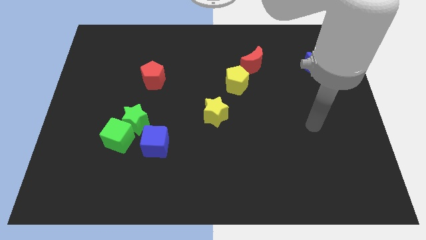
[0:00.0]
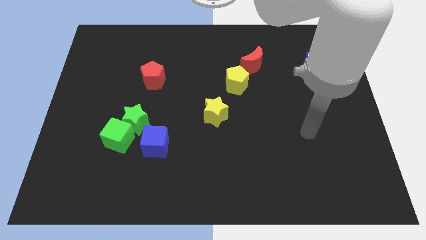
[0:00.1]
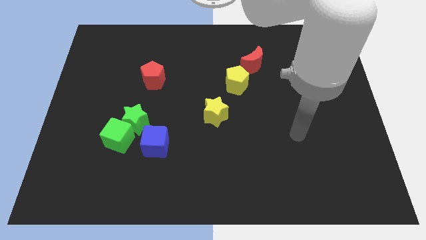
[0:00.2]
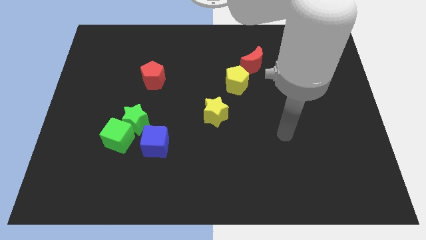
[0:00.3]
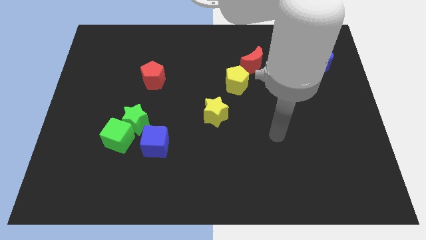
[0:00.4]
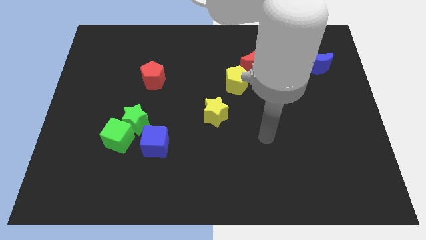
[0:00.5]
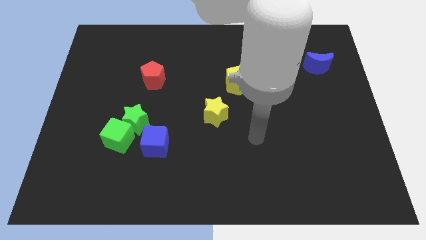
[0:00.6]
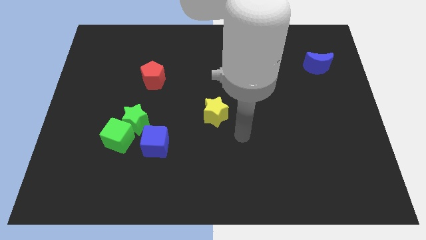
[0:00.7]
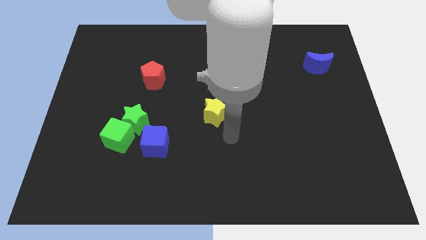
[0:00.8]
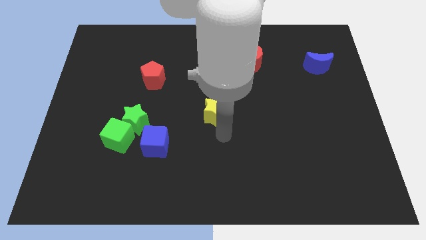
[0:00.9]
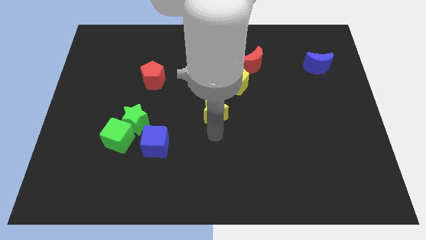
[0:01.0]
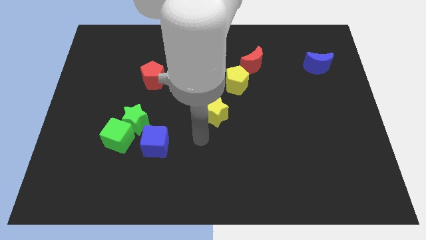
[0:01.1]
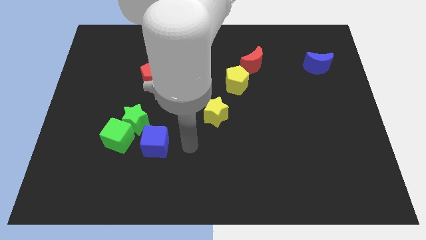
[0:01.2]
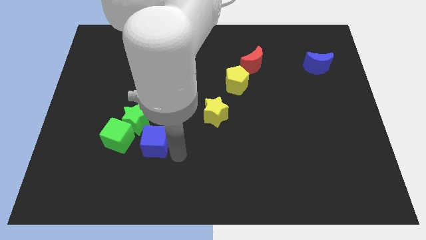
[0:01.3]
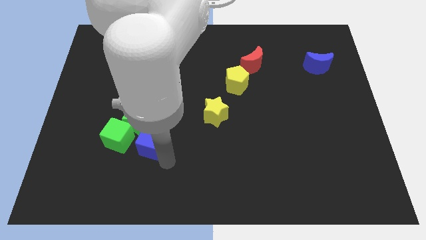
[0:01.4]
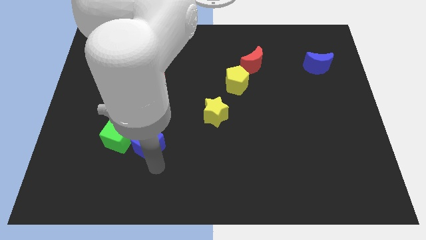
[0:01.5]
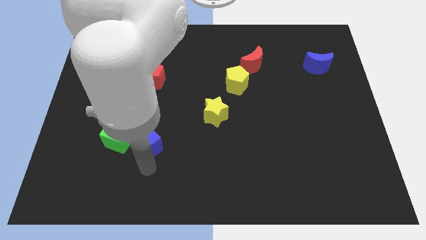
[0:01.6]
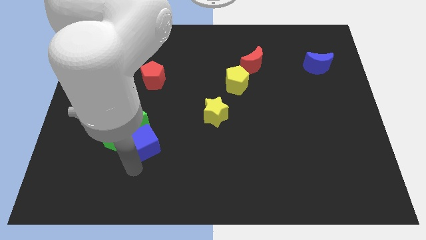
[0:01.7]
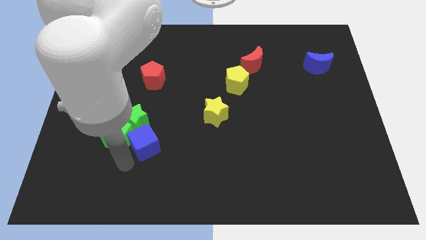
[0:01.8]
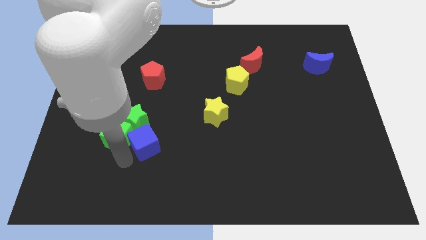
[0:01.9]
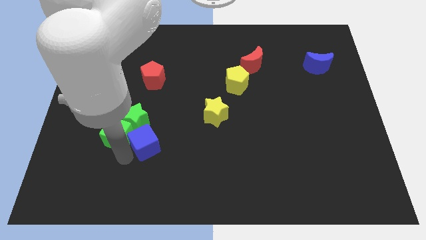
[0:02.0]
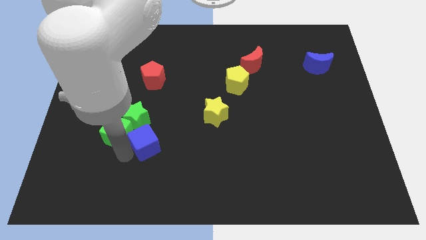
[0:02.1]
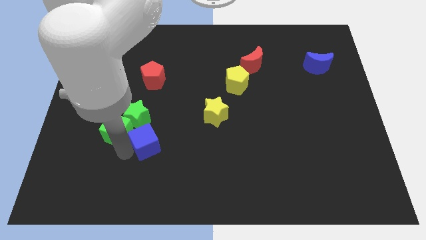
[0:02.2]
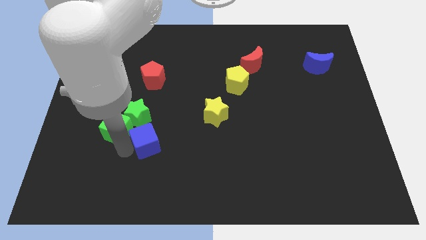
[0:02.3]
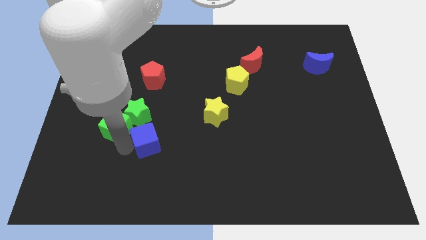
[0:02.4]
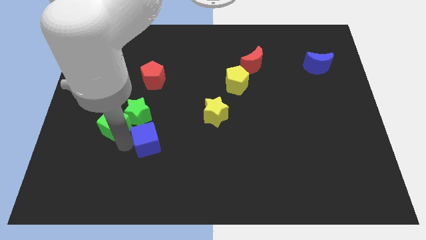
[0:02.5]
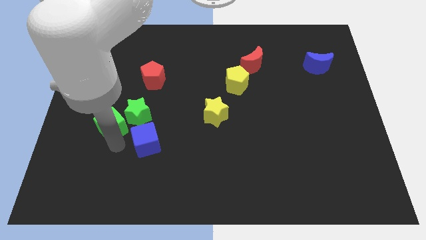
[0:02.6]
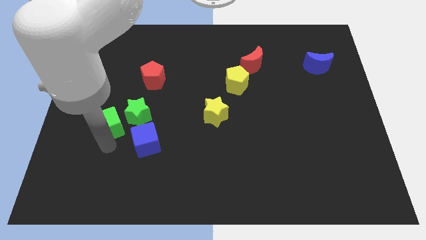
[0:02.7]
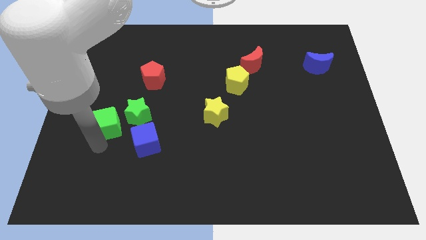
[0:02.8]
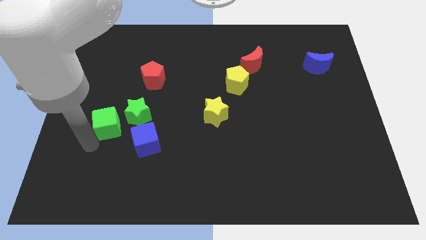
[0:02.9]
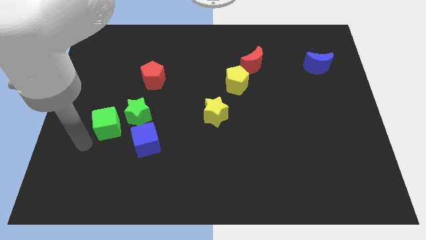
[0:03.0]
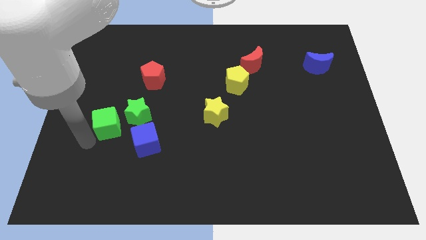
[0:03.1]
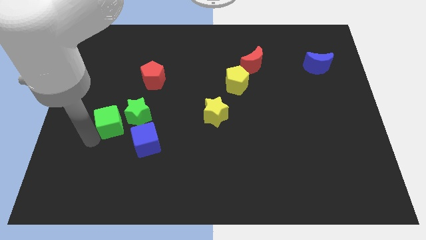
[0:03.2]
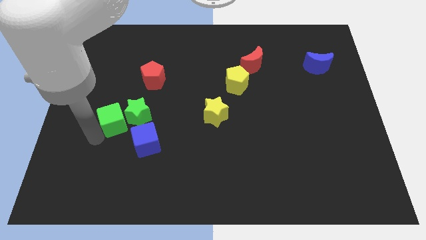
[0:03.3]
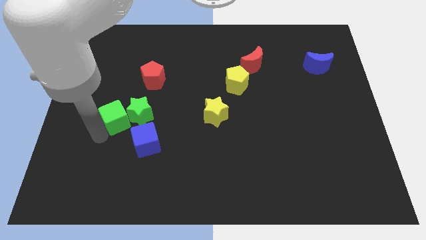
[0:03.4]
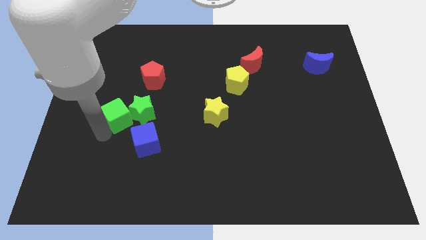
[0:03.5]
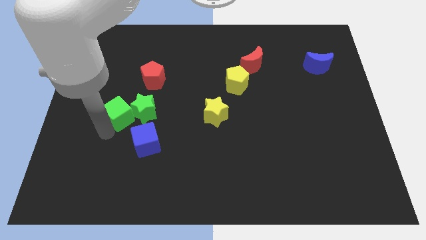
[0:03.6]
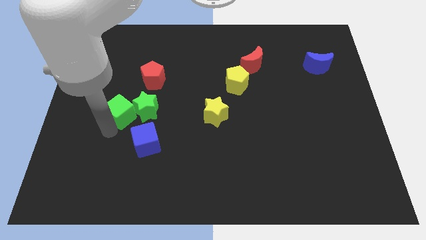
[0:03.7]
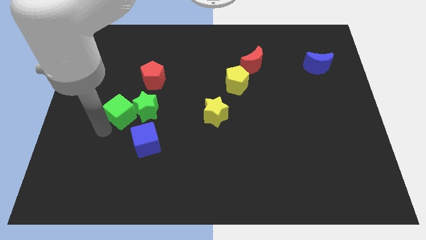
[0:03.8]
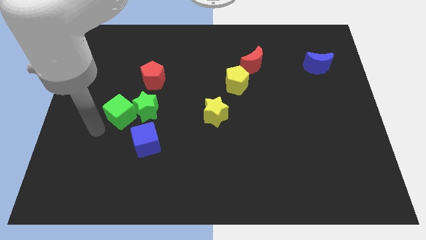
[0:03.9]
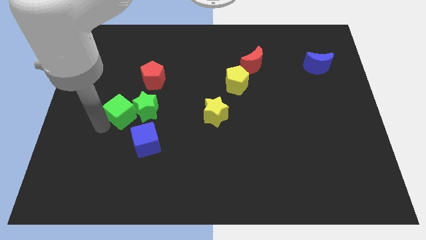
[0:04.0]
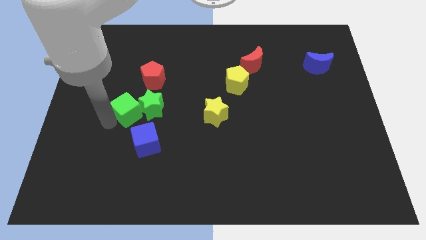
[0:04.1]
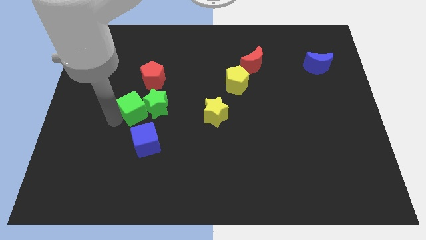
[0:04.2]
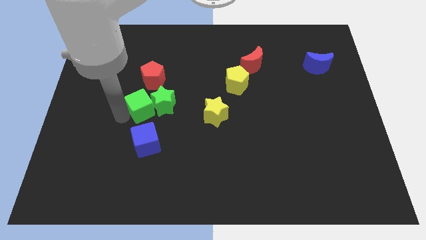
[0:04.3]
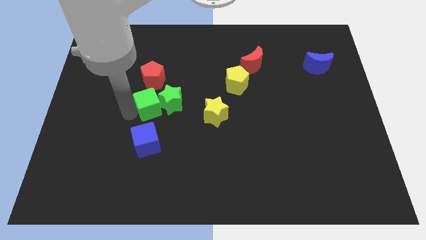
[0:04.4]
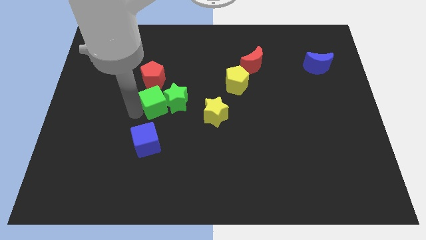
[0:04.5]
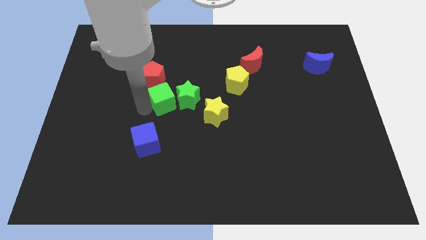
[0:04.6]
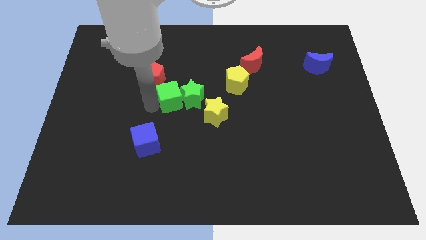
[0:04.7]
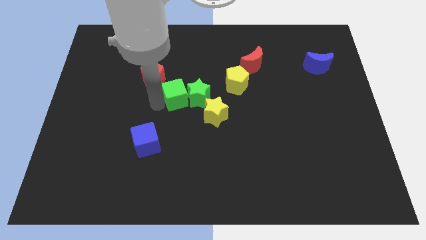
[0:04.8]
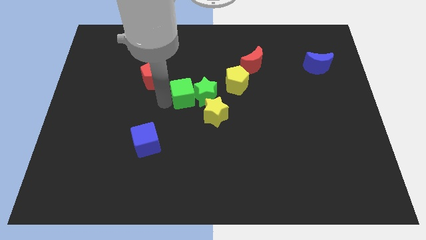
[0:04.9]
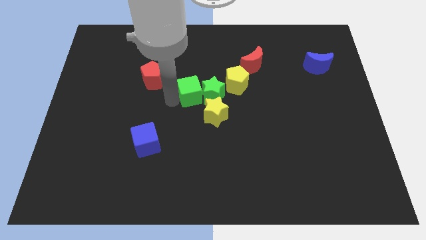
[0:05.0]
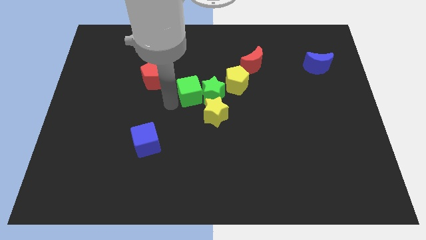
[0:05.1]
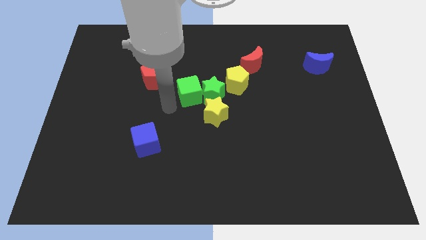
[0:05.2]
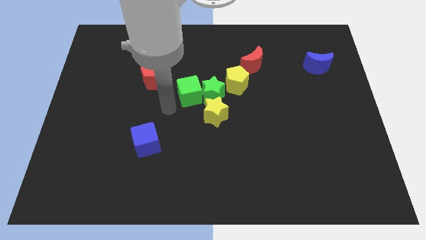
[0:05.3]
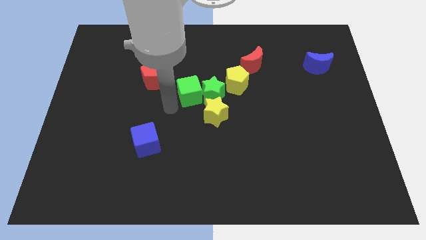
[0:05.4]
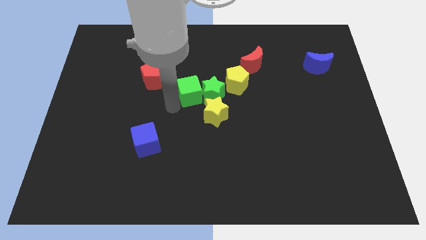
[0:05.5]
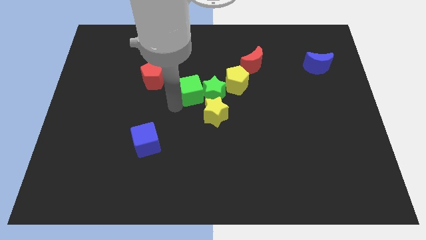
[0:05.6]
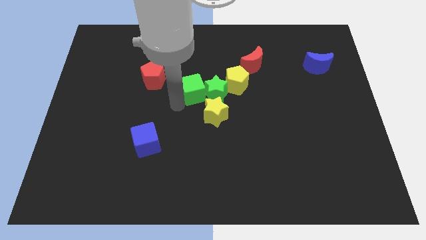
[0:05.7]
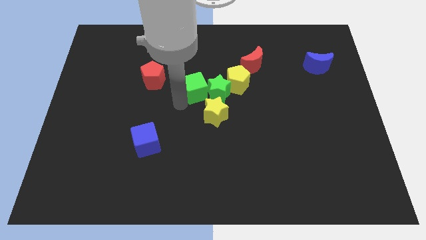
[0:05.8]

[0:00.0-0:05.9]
move the green cube above the yellow star

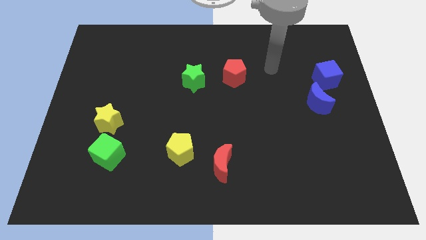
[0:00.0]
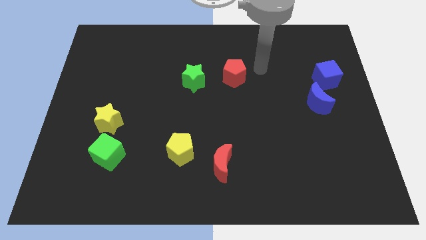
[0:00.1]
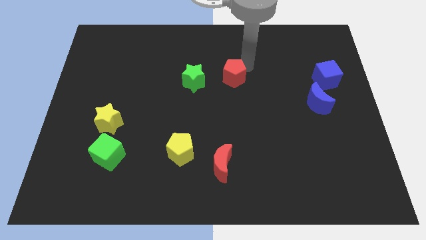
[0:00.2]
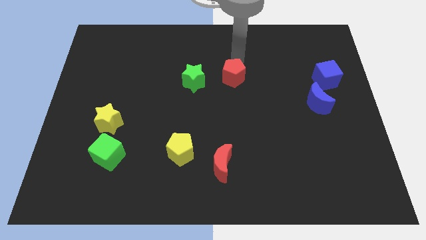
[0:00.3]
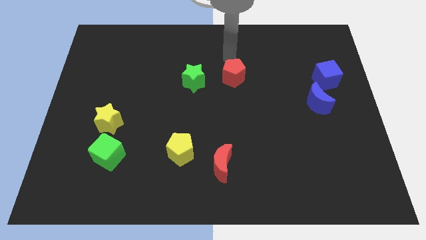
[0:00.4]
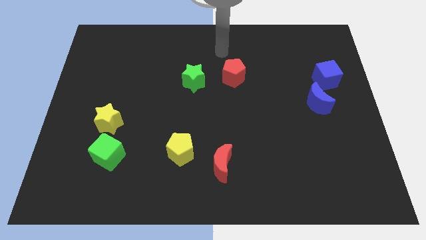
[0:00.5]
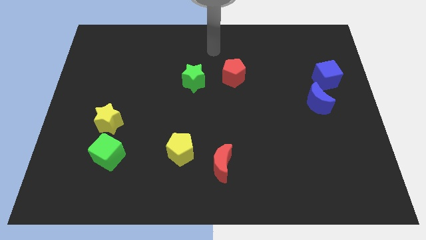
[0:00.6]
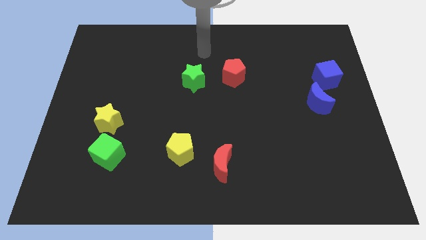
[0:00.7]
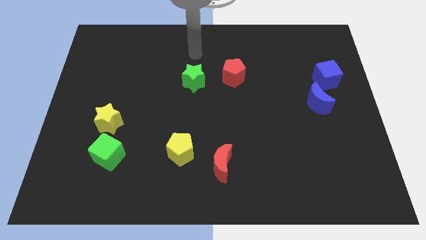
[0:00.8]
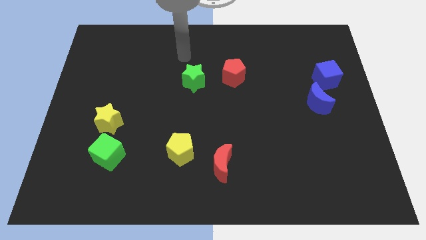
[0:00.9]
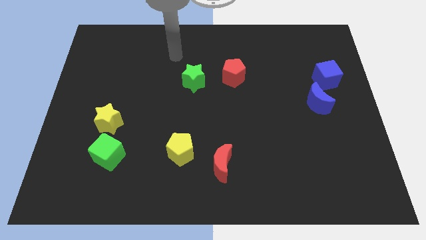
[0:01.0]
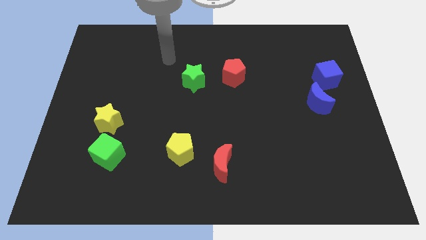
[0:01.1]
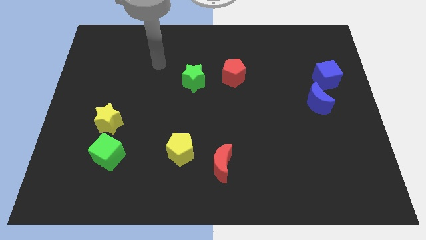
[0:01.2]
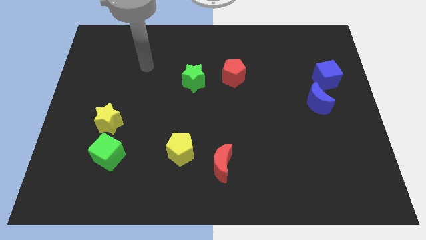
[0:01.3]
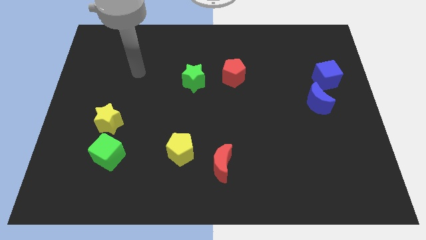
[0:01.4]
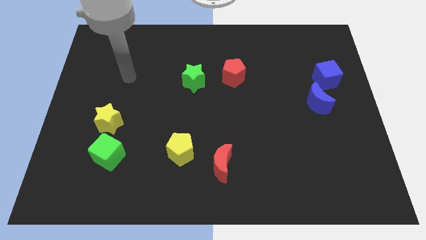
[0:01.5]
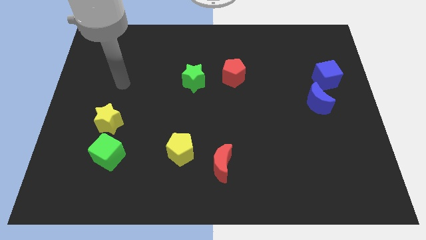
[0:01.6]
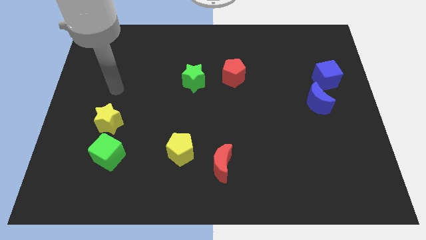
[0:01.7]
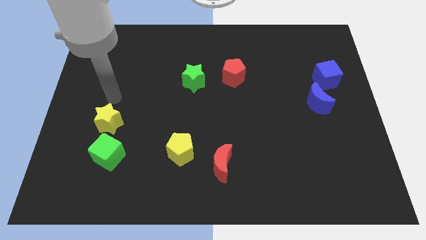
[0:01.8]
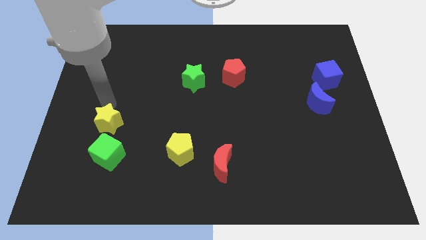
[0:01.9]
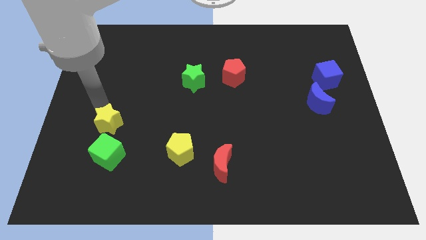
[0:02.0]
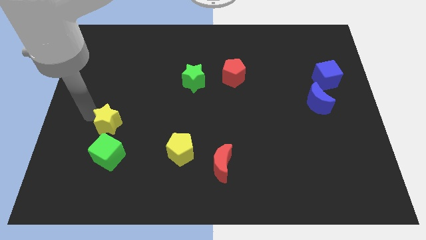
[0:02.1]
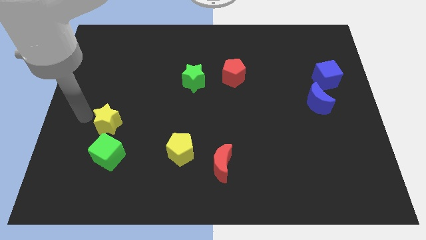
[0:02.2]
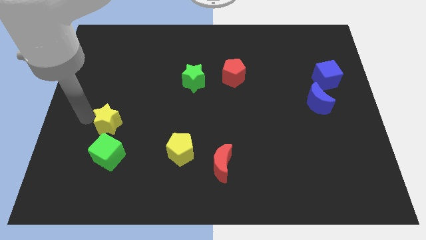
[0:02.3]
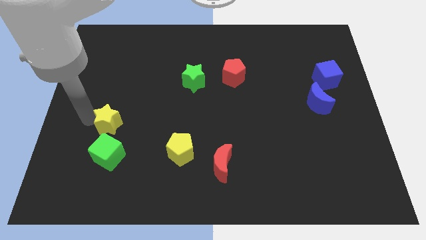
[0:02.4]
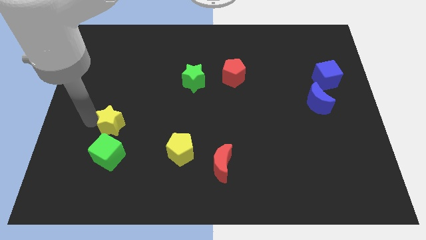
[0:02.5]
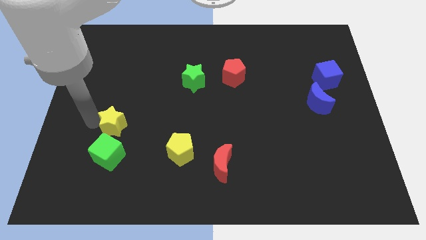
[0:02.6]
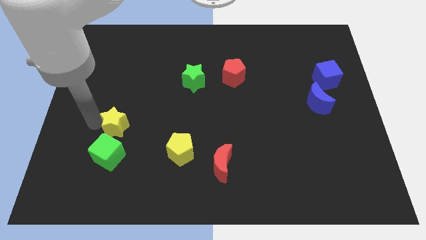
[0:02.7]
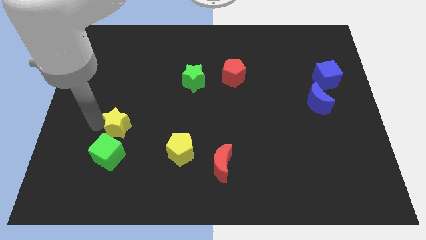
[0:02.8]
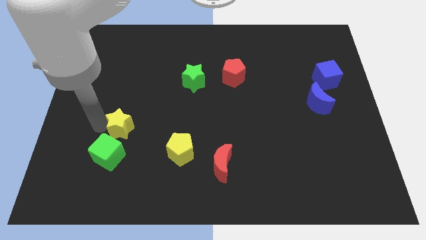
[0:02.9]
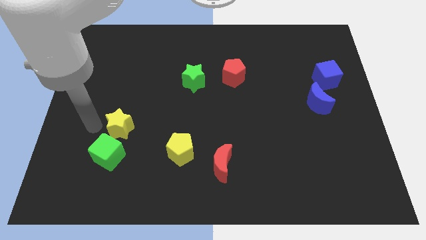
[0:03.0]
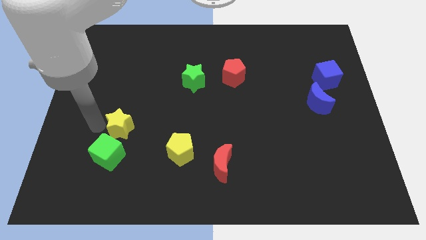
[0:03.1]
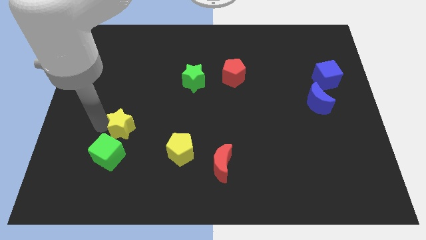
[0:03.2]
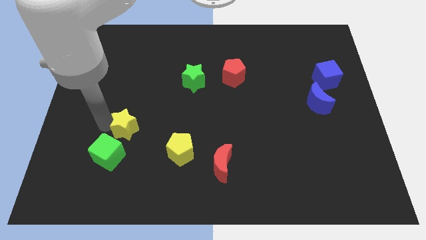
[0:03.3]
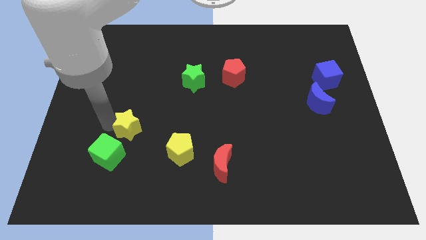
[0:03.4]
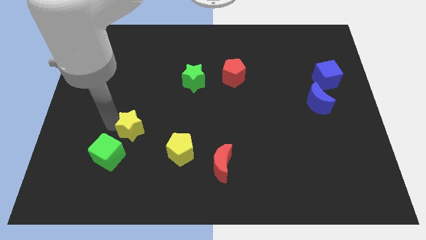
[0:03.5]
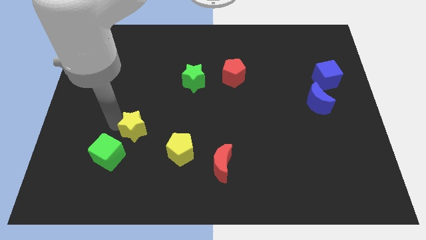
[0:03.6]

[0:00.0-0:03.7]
slide the yellow star to the top left of the yellow pentagon
